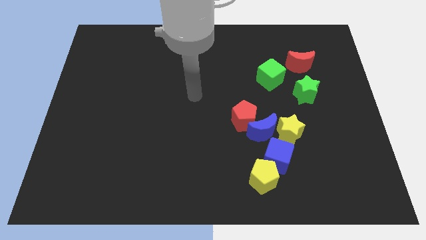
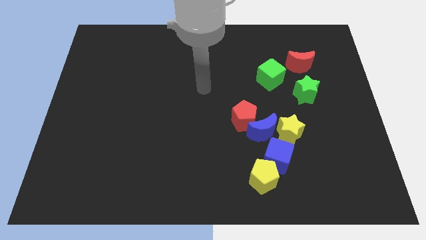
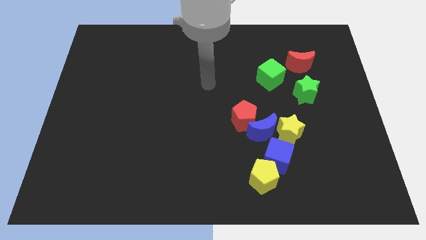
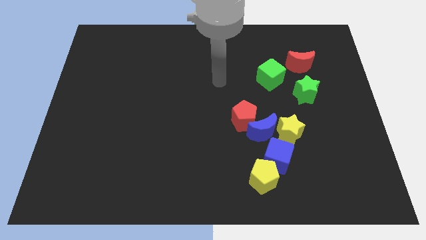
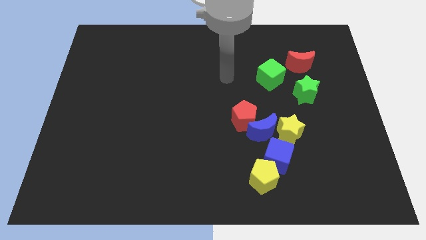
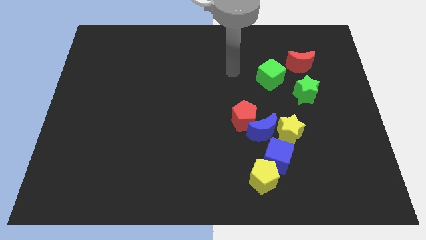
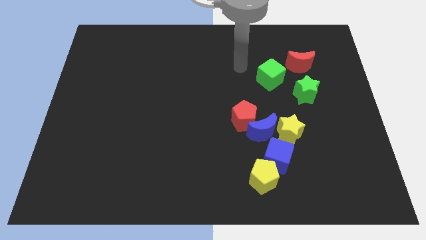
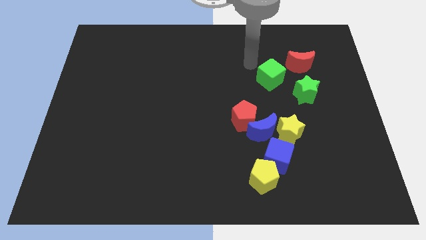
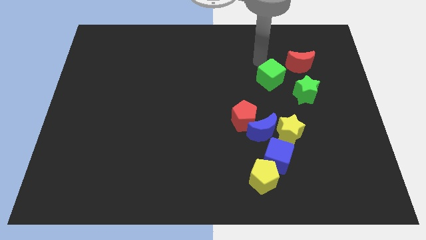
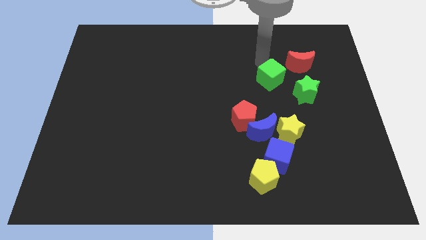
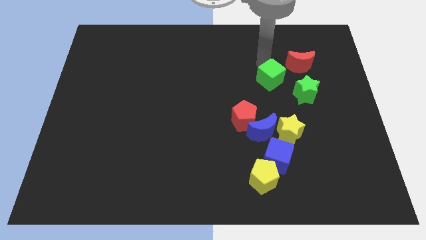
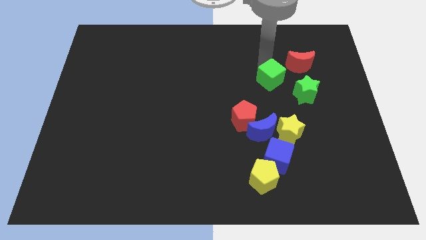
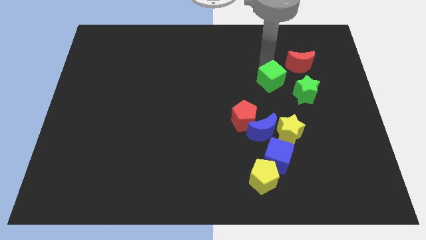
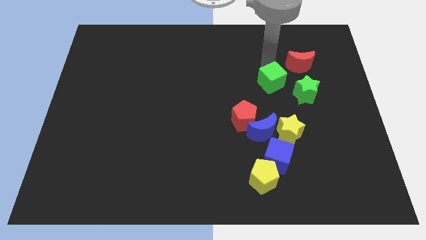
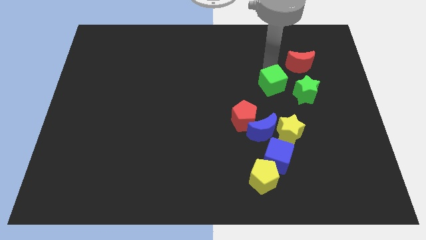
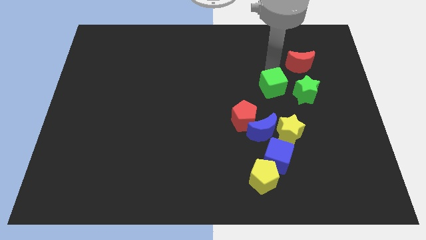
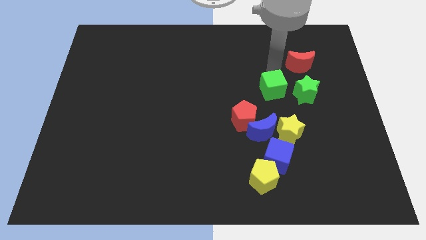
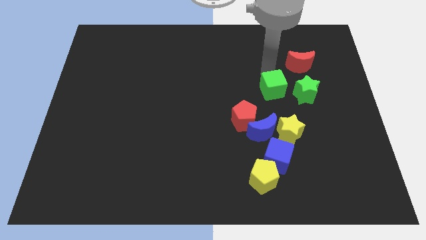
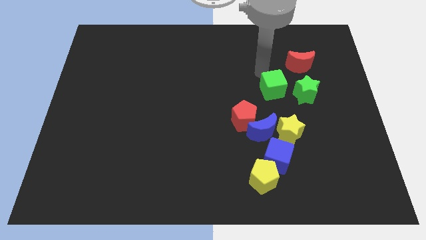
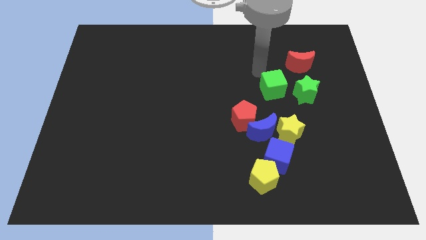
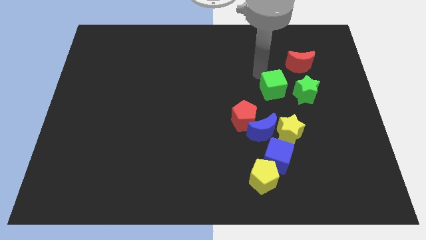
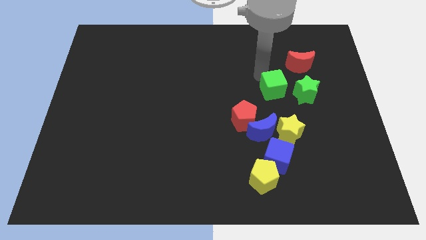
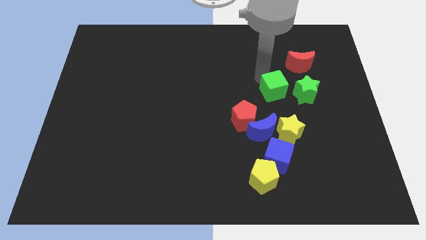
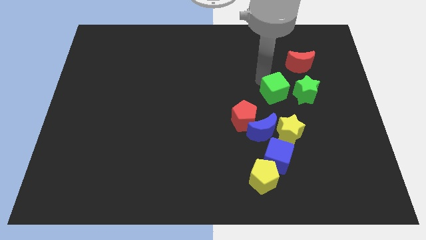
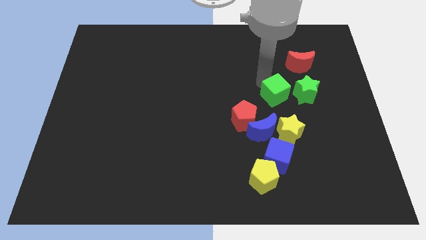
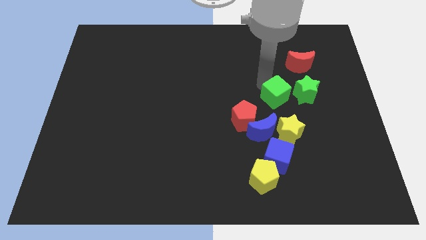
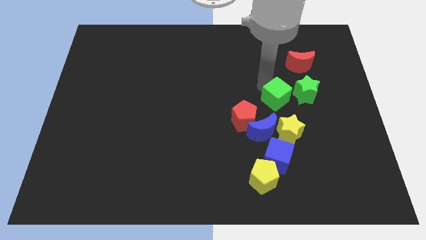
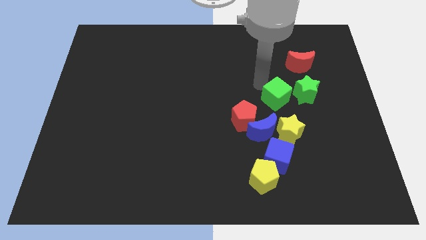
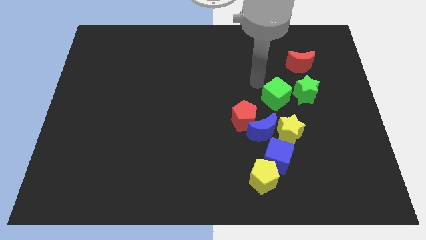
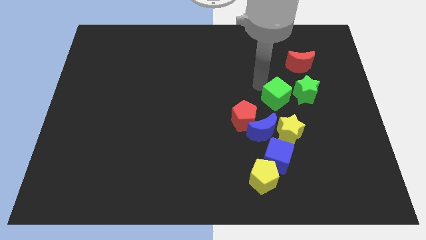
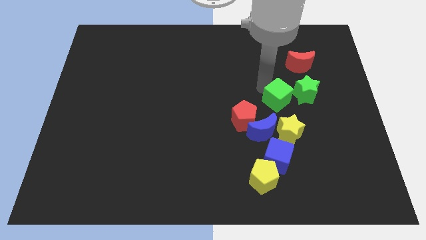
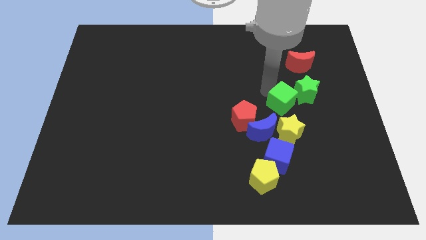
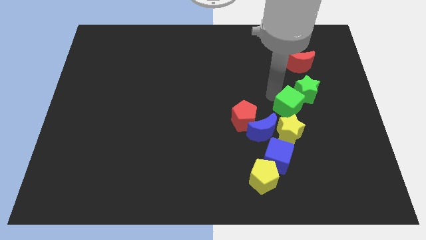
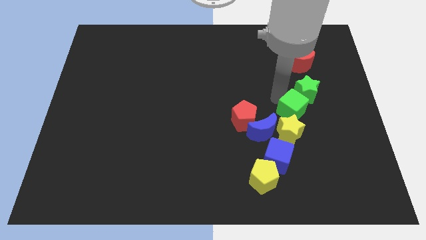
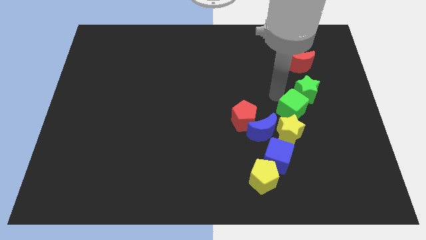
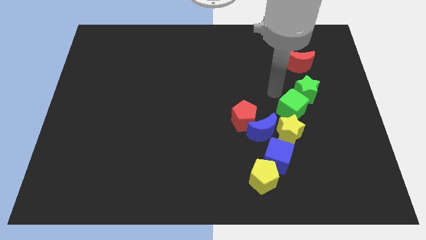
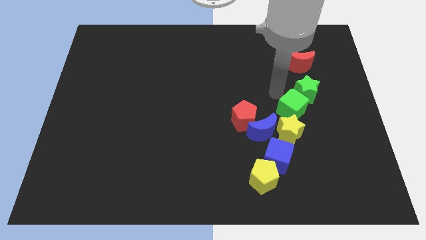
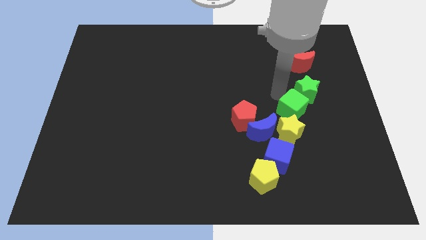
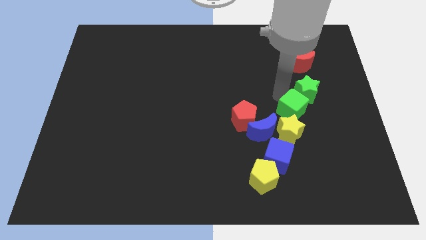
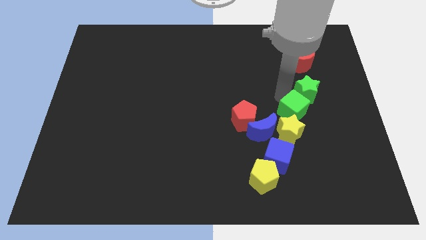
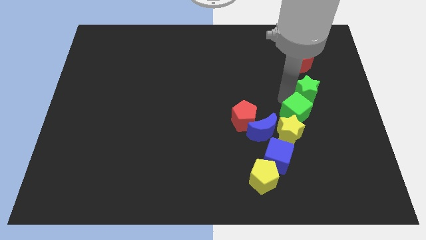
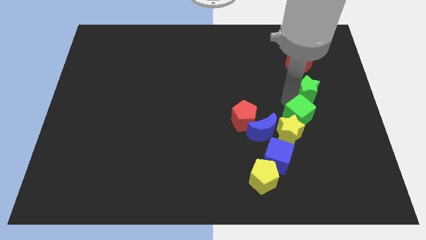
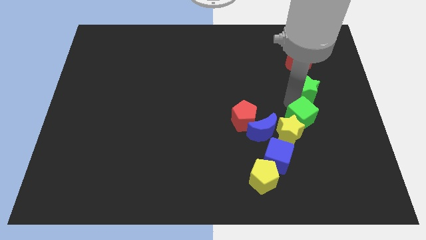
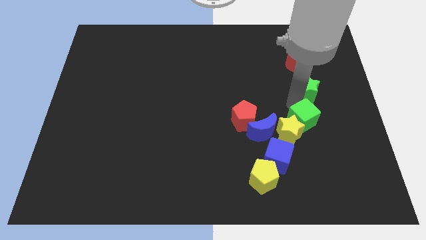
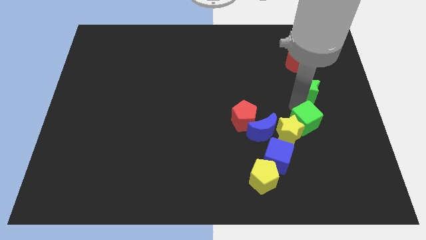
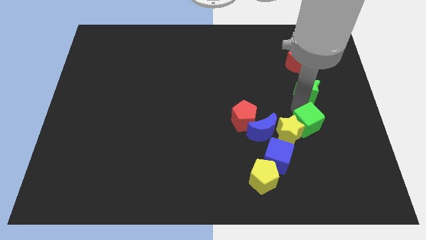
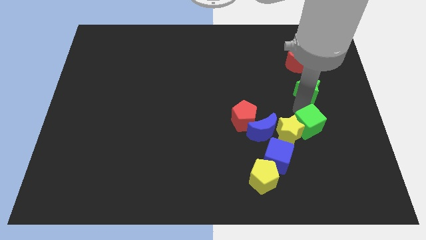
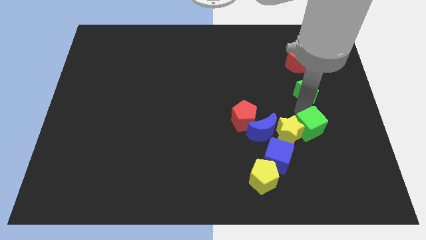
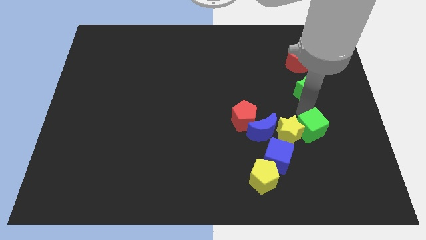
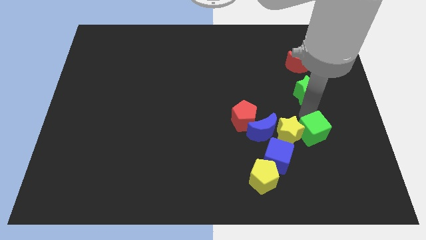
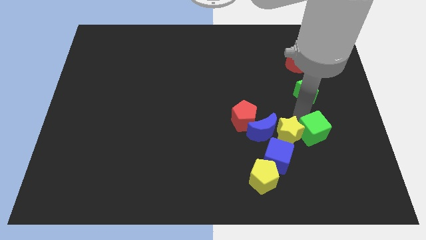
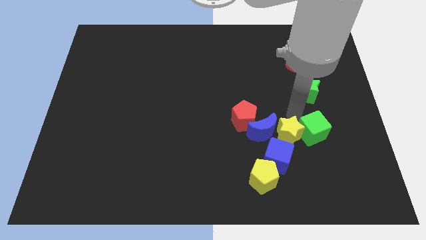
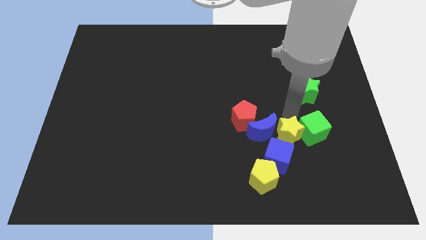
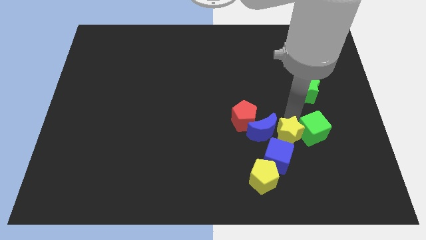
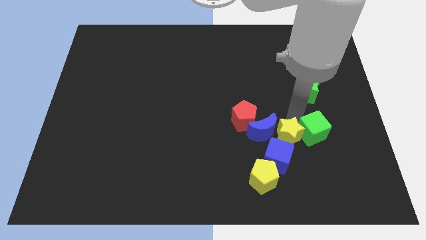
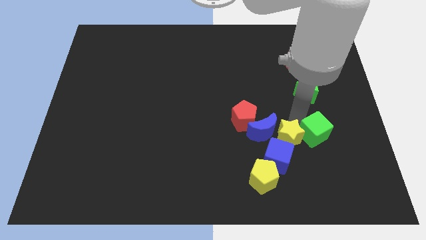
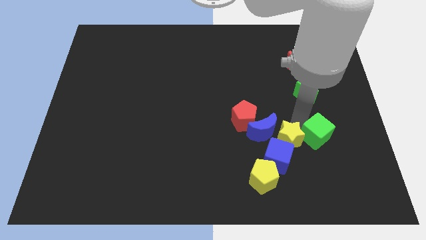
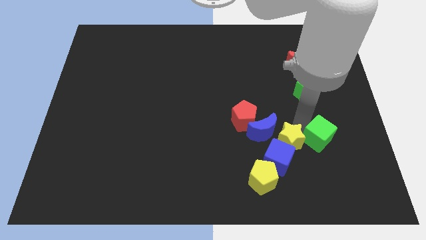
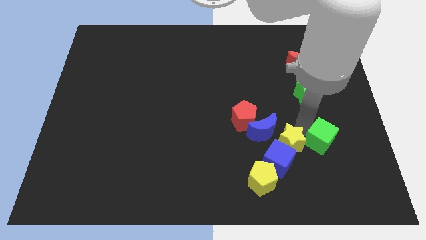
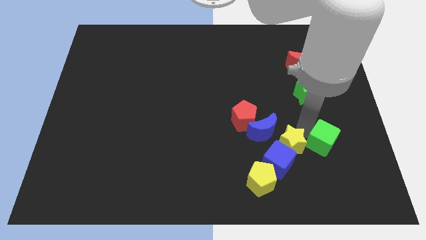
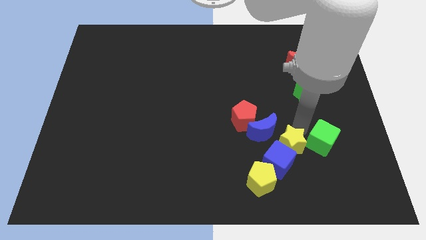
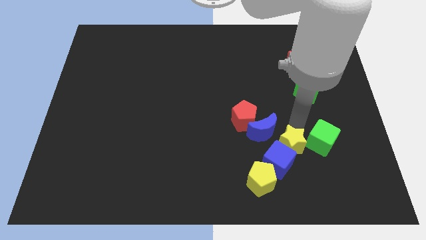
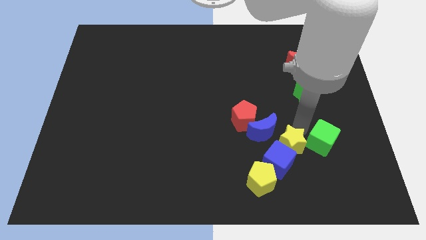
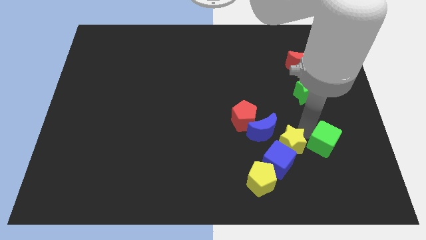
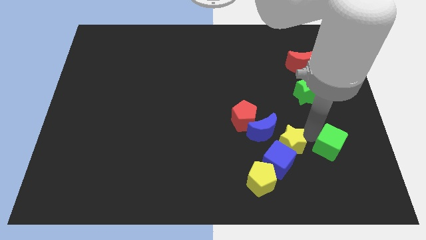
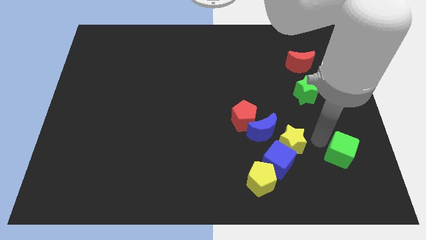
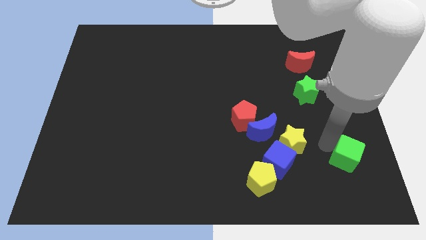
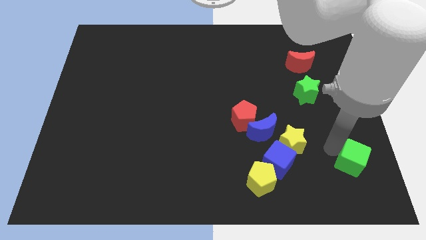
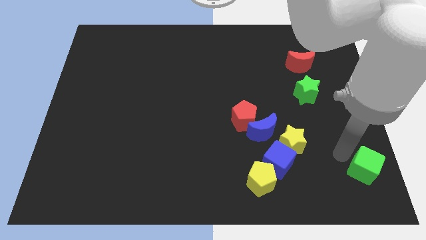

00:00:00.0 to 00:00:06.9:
move the green cube to the bottom right
